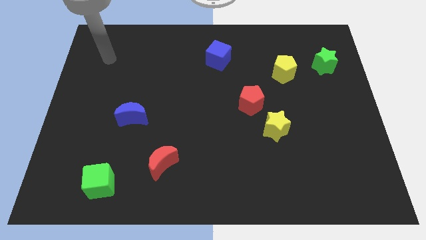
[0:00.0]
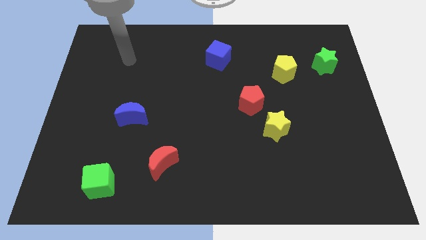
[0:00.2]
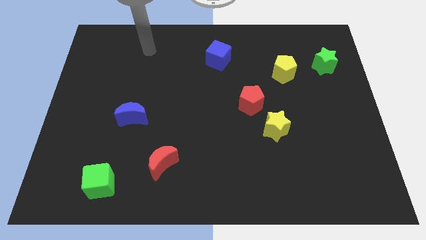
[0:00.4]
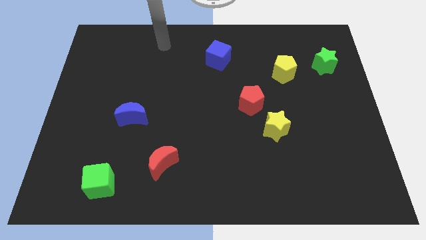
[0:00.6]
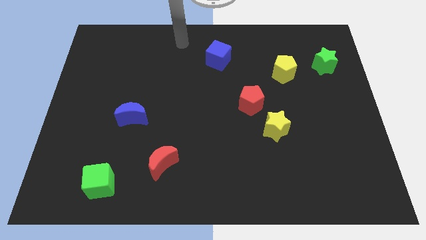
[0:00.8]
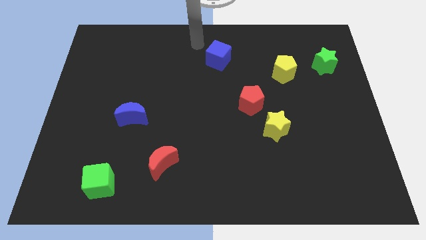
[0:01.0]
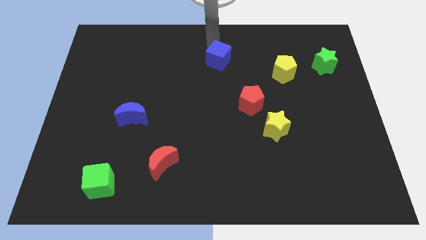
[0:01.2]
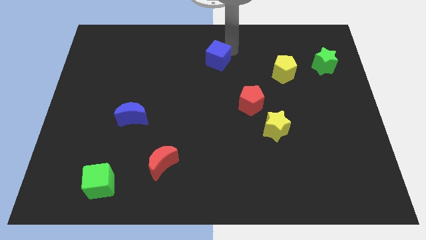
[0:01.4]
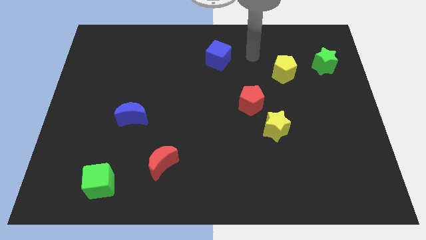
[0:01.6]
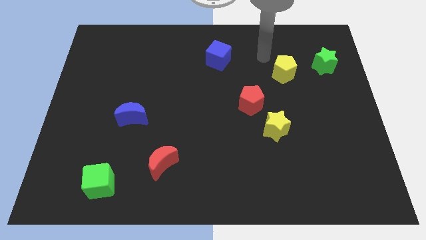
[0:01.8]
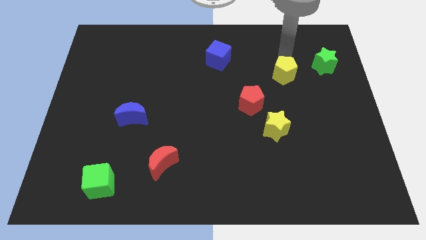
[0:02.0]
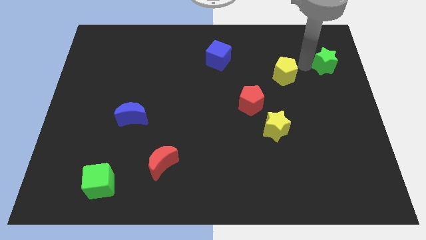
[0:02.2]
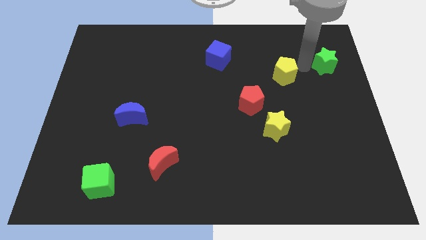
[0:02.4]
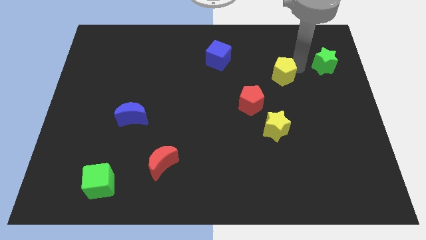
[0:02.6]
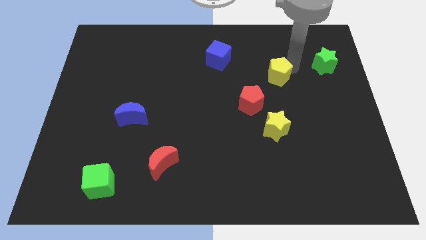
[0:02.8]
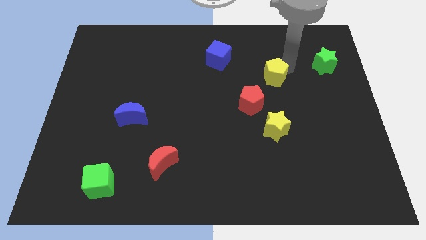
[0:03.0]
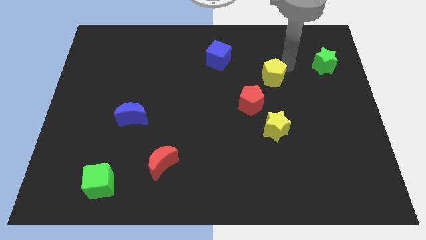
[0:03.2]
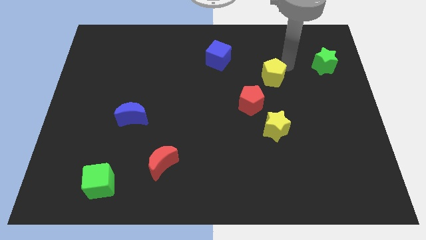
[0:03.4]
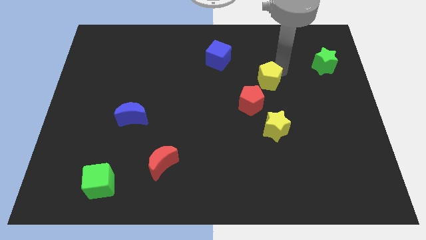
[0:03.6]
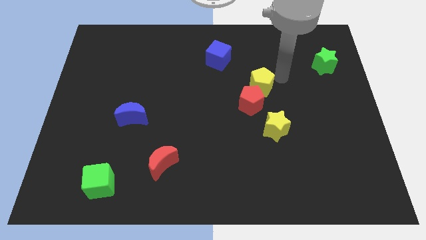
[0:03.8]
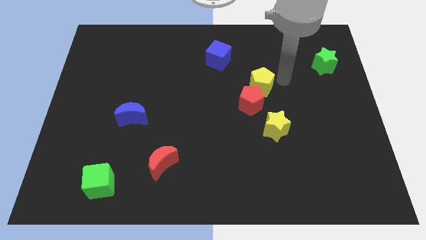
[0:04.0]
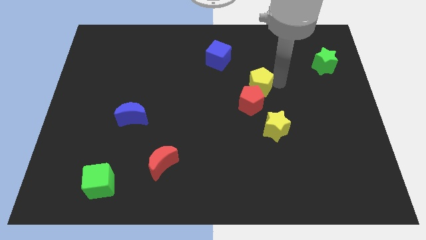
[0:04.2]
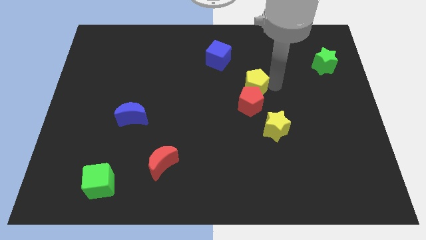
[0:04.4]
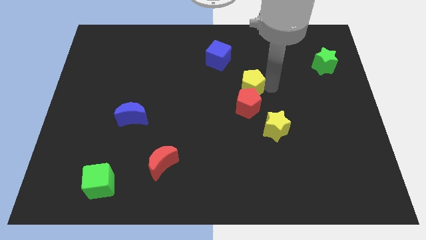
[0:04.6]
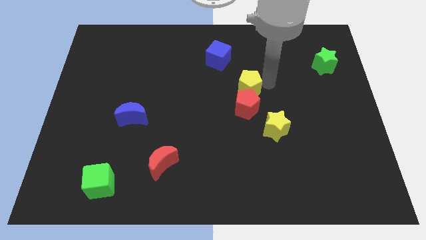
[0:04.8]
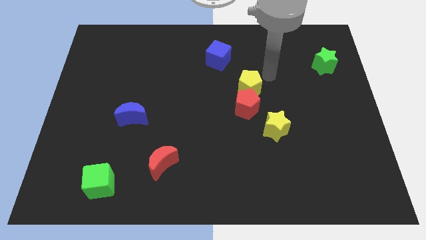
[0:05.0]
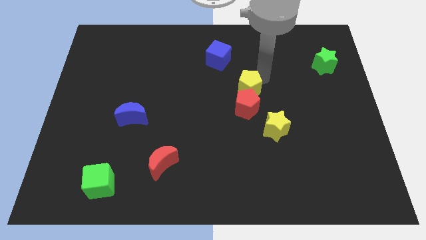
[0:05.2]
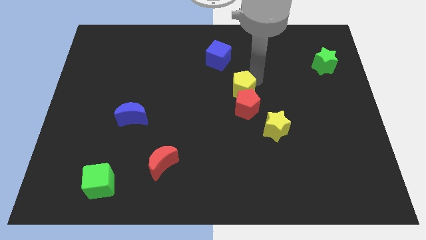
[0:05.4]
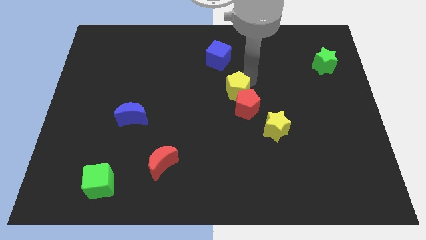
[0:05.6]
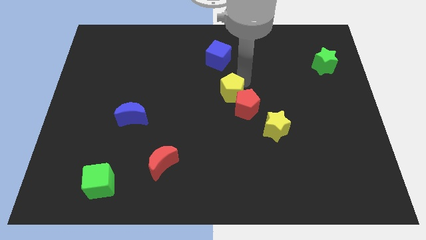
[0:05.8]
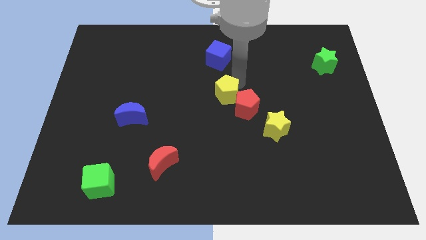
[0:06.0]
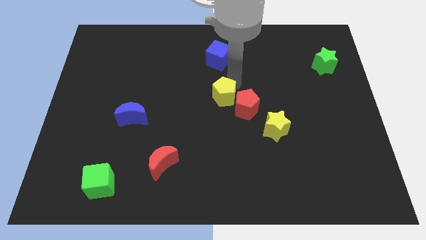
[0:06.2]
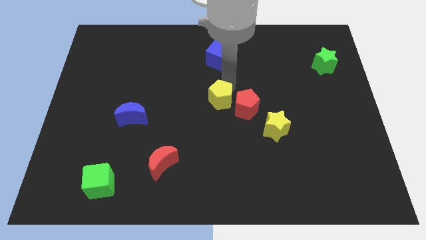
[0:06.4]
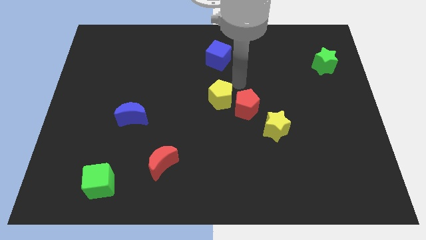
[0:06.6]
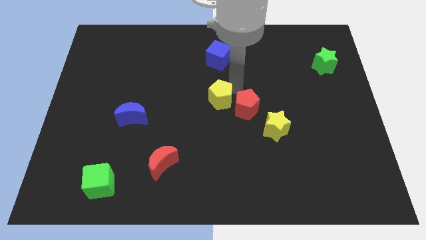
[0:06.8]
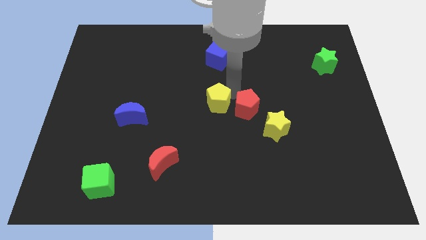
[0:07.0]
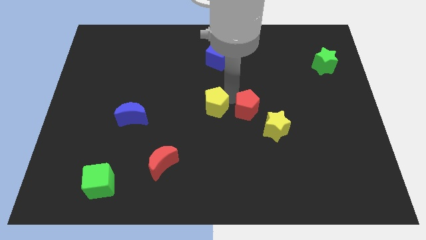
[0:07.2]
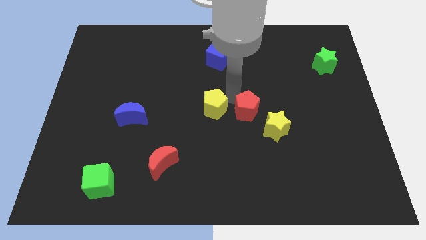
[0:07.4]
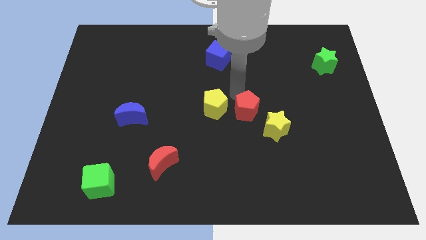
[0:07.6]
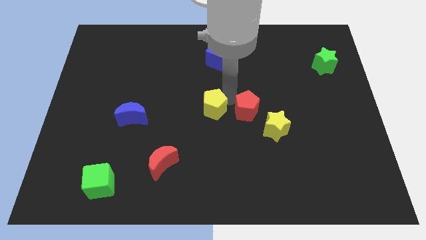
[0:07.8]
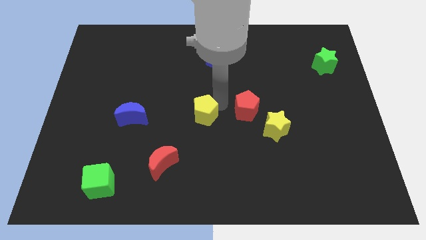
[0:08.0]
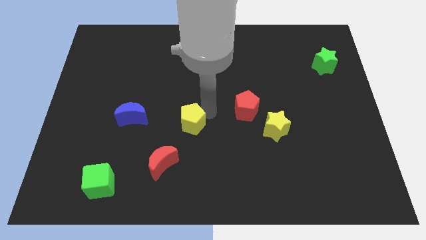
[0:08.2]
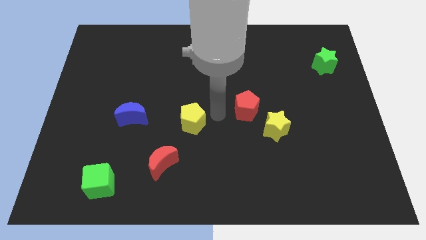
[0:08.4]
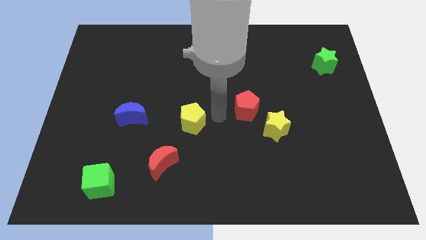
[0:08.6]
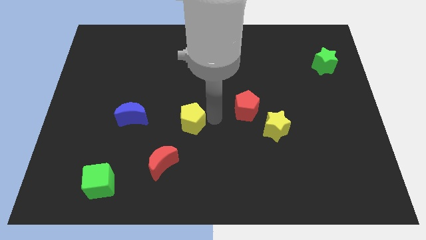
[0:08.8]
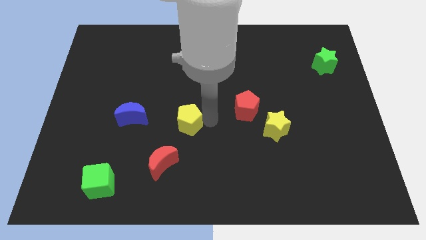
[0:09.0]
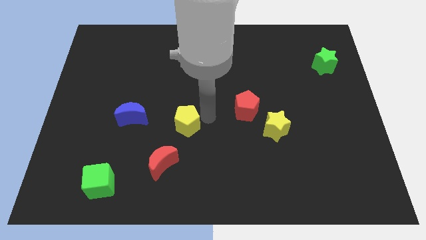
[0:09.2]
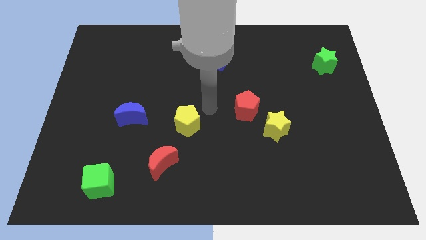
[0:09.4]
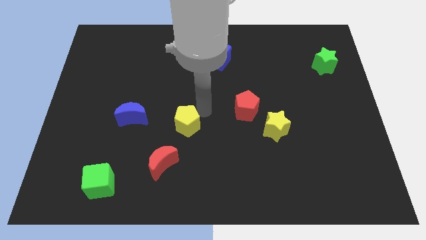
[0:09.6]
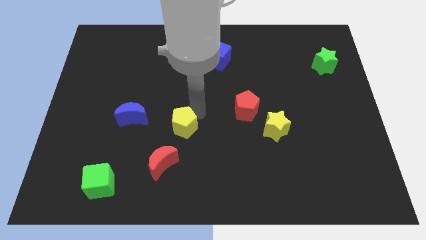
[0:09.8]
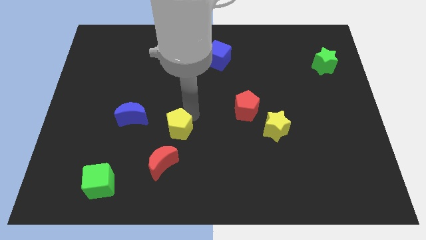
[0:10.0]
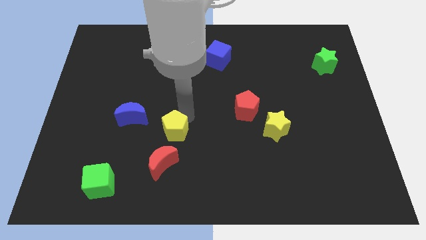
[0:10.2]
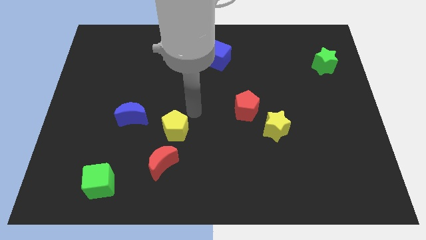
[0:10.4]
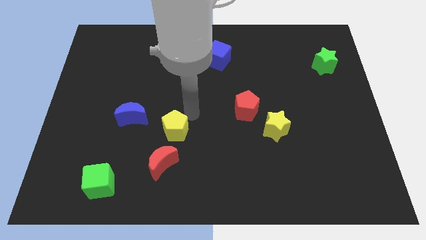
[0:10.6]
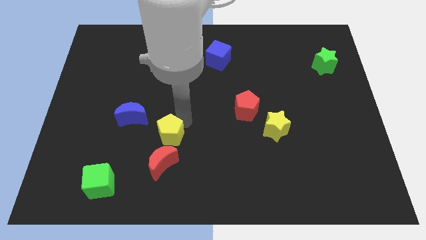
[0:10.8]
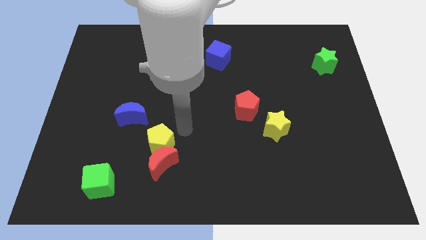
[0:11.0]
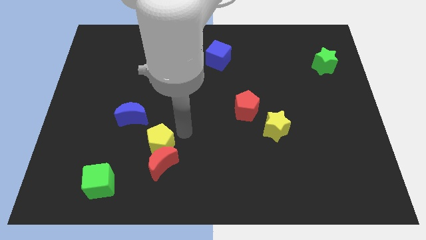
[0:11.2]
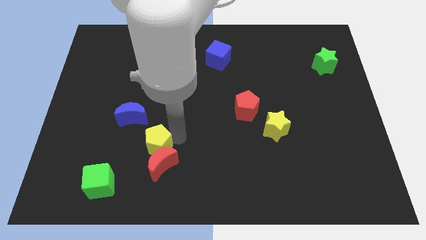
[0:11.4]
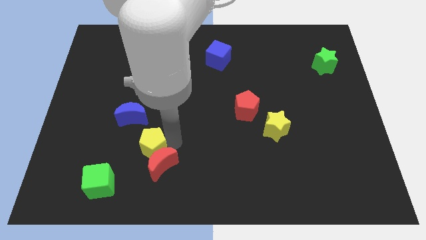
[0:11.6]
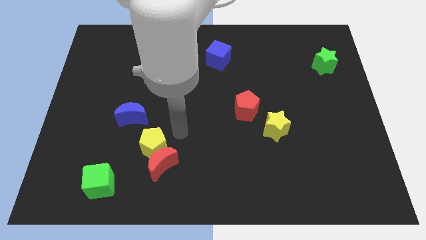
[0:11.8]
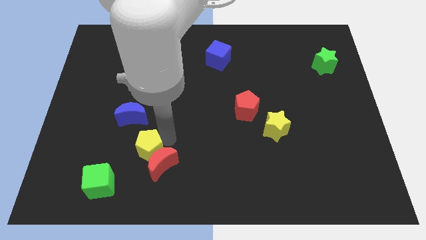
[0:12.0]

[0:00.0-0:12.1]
put the yellow pentagon to the top right side of the green cube

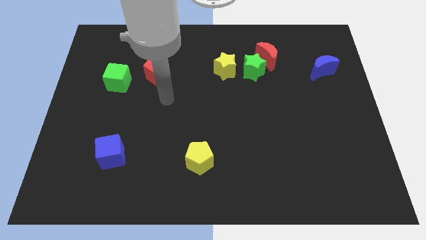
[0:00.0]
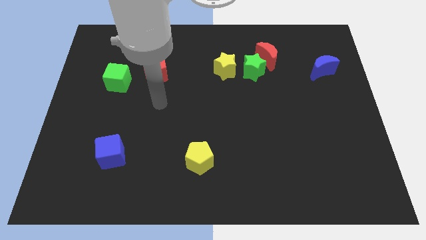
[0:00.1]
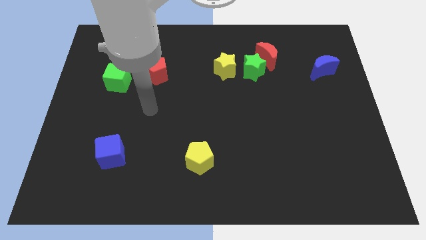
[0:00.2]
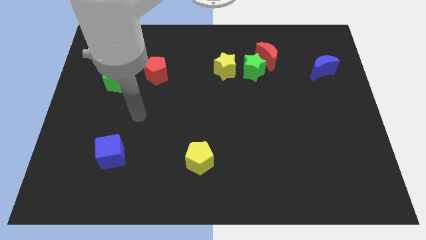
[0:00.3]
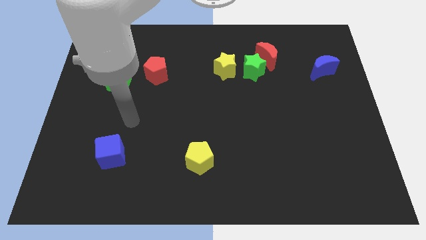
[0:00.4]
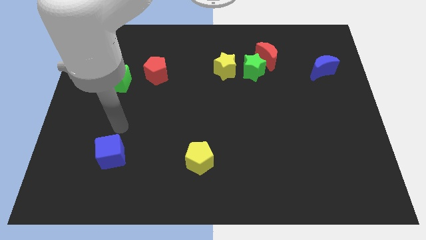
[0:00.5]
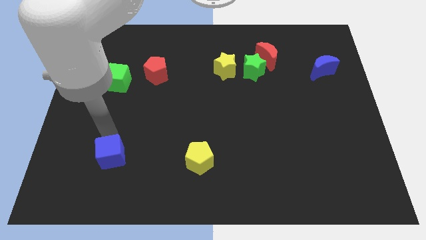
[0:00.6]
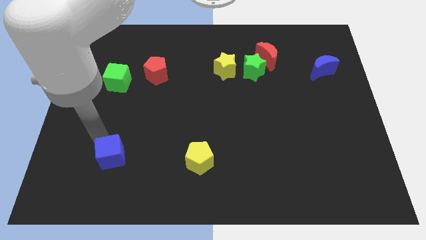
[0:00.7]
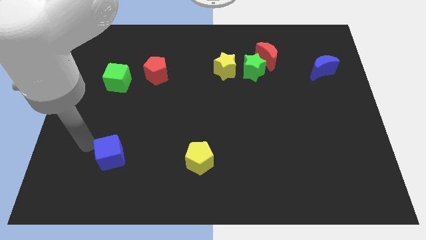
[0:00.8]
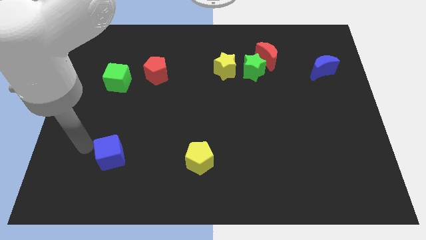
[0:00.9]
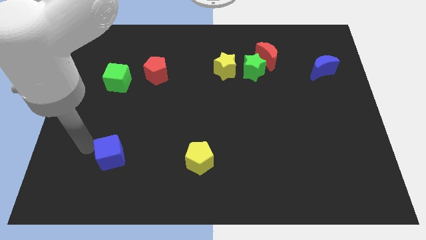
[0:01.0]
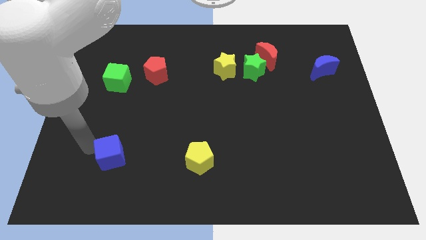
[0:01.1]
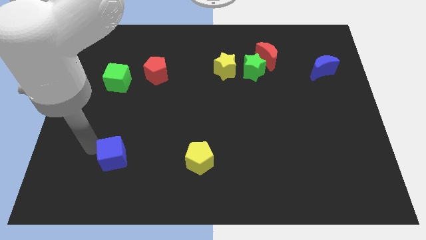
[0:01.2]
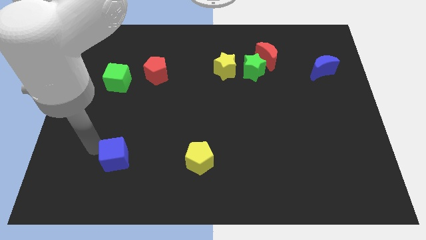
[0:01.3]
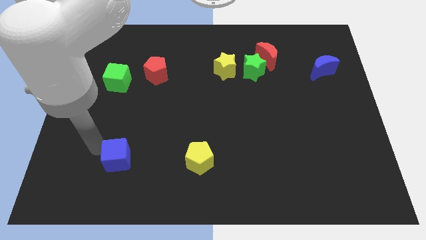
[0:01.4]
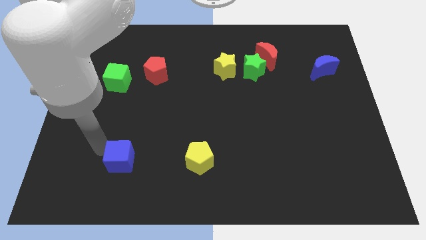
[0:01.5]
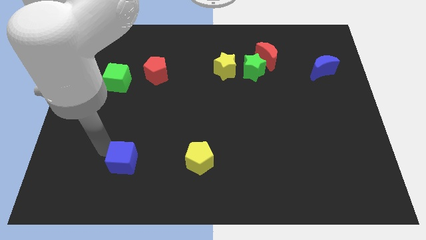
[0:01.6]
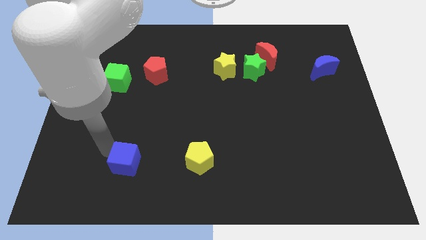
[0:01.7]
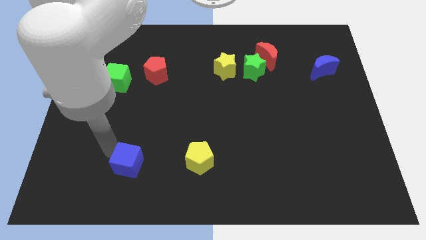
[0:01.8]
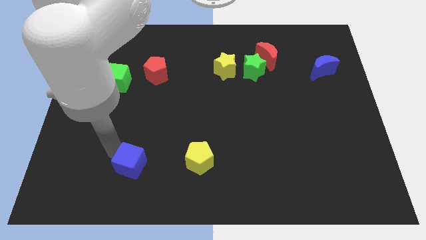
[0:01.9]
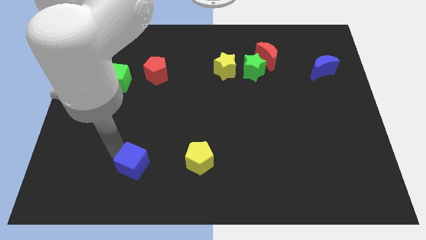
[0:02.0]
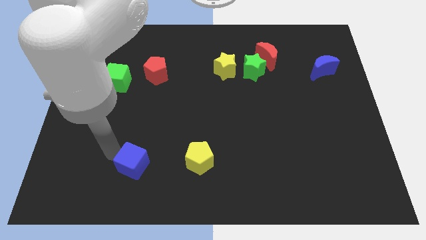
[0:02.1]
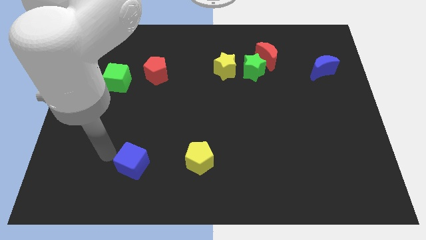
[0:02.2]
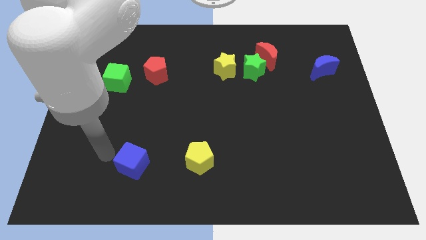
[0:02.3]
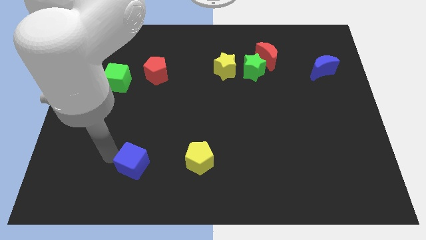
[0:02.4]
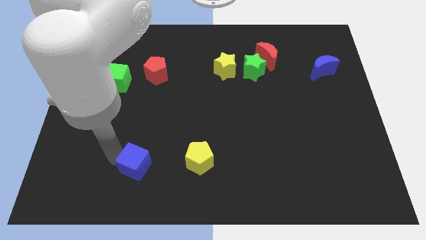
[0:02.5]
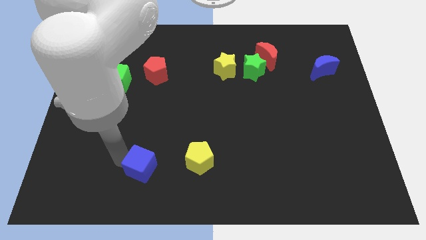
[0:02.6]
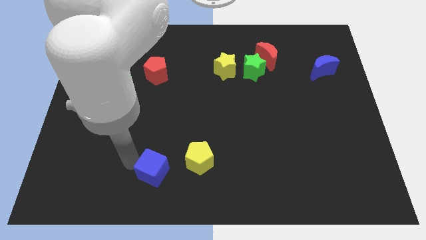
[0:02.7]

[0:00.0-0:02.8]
move the blue cube diagonally down and to the left of the yellow pentagon
